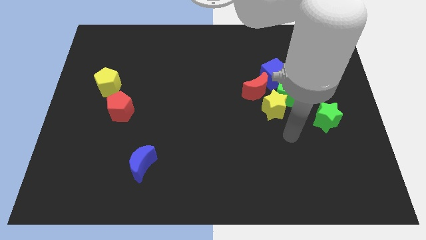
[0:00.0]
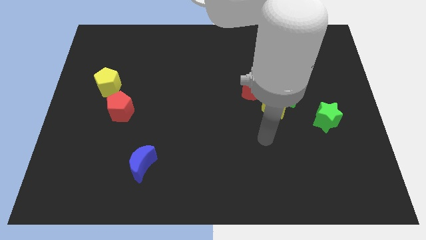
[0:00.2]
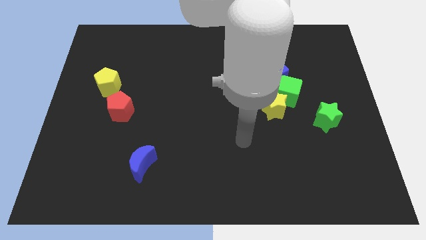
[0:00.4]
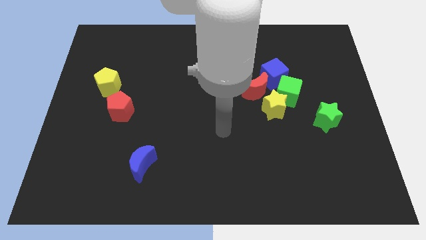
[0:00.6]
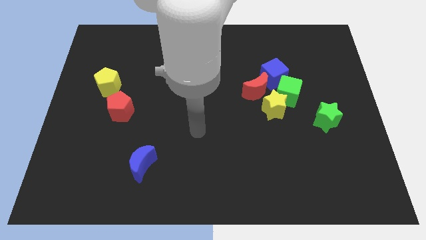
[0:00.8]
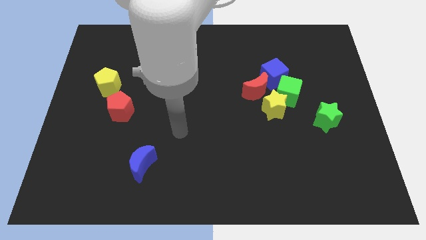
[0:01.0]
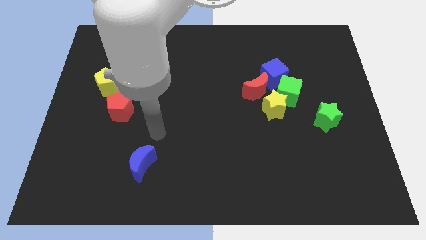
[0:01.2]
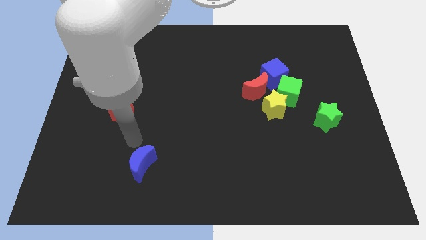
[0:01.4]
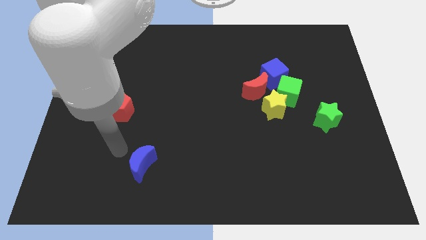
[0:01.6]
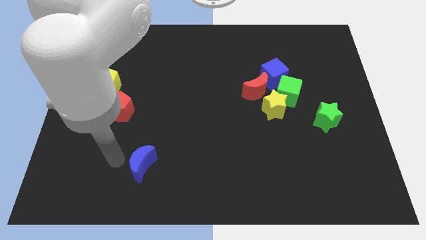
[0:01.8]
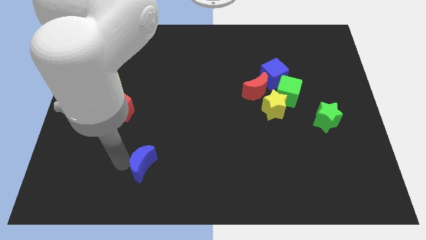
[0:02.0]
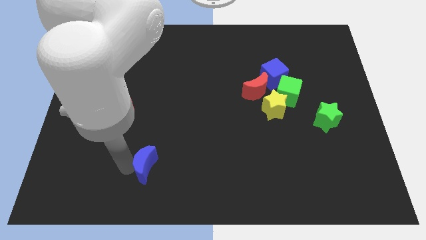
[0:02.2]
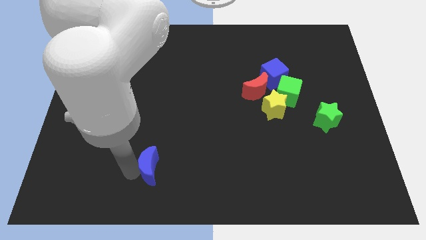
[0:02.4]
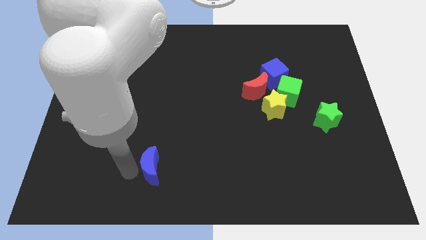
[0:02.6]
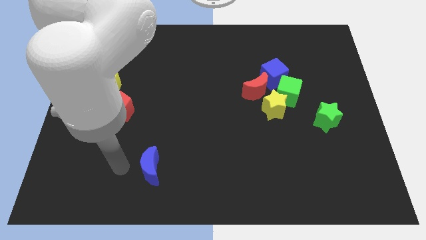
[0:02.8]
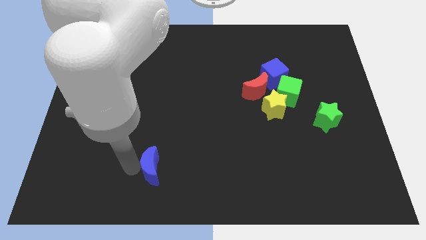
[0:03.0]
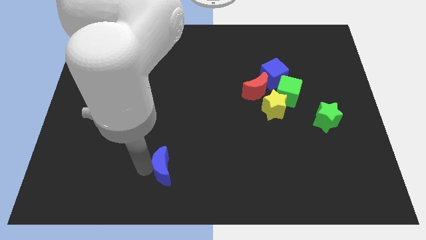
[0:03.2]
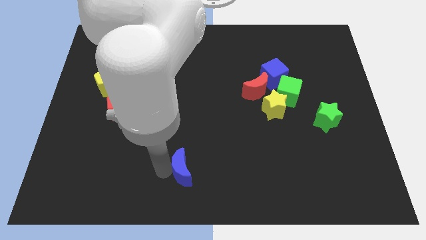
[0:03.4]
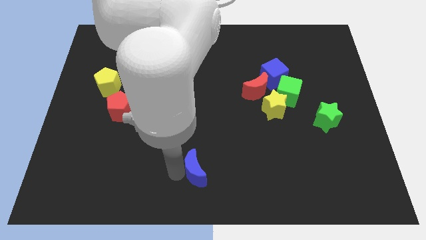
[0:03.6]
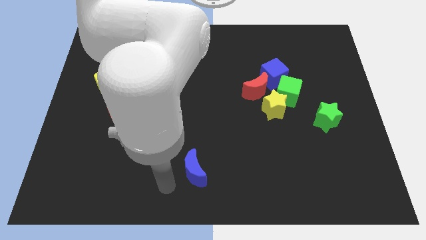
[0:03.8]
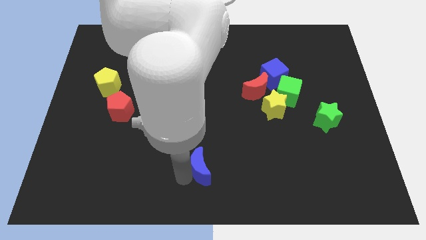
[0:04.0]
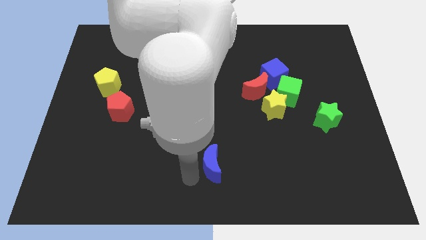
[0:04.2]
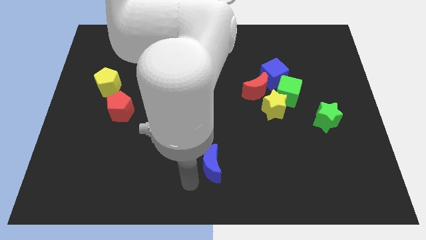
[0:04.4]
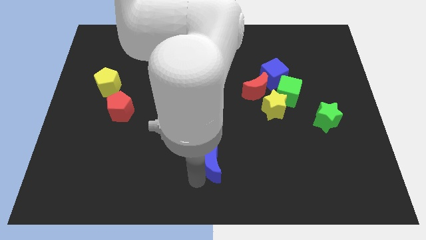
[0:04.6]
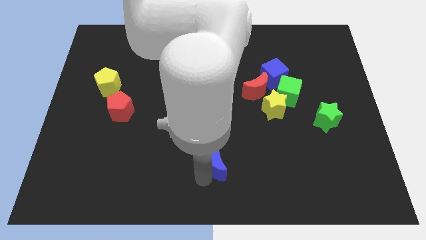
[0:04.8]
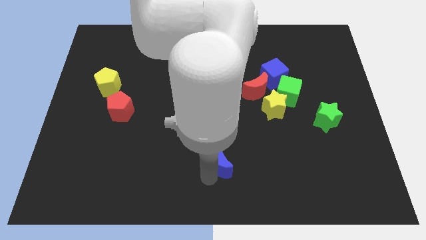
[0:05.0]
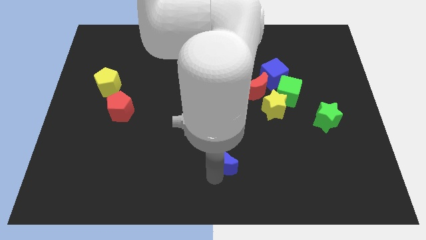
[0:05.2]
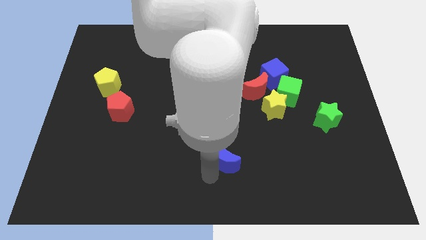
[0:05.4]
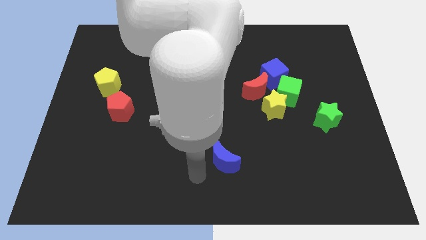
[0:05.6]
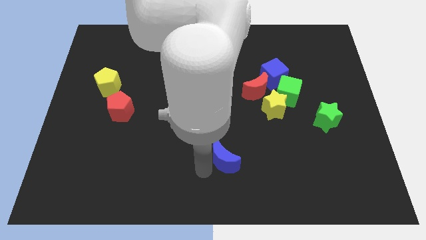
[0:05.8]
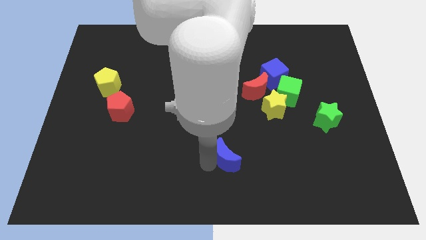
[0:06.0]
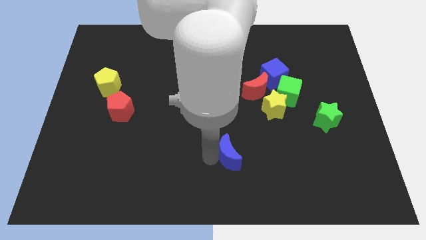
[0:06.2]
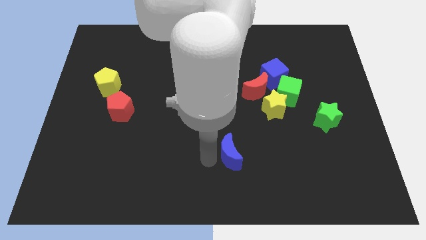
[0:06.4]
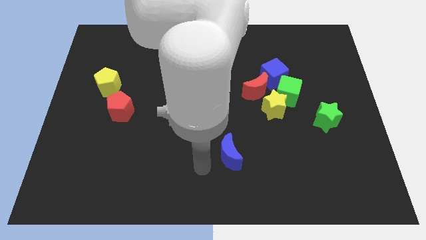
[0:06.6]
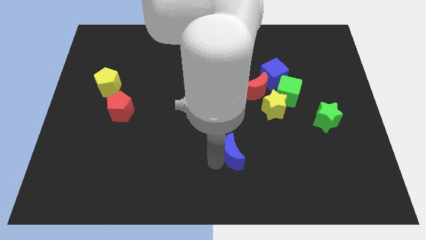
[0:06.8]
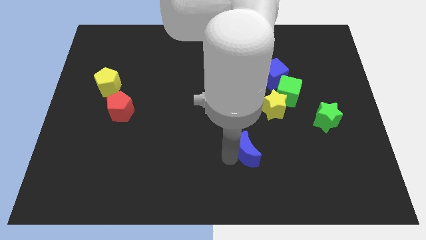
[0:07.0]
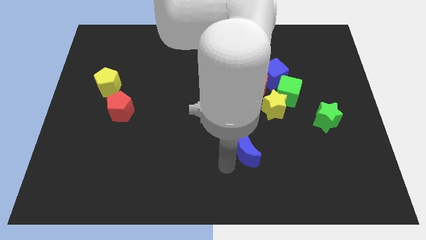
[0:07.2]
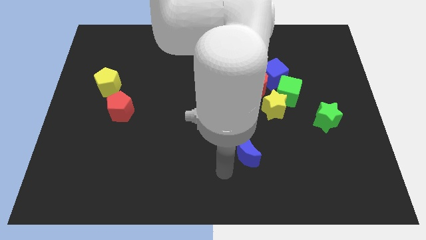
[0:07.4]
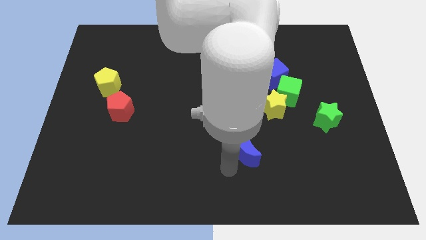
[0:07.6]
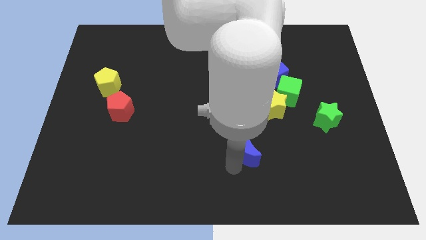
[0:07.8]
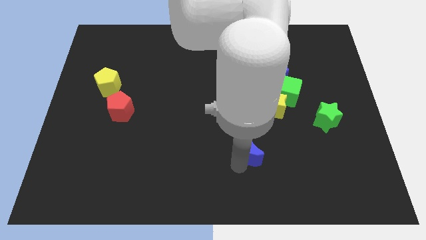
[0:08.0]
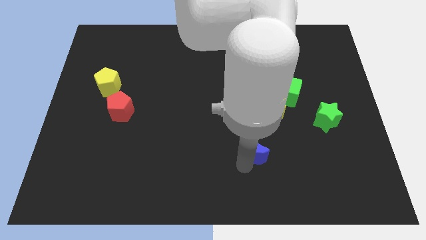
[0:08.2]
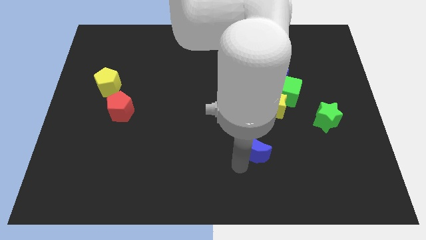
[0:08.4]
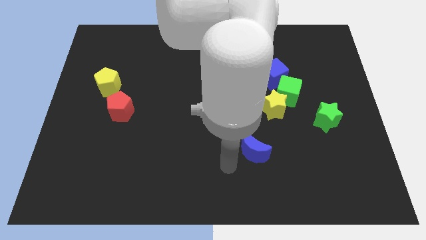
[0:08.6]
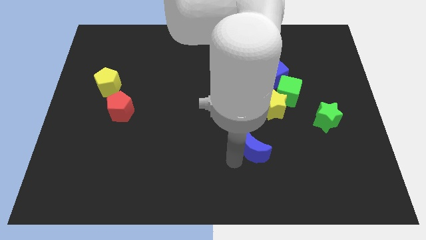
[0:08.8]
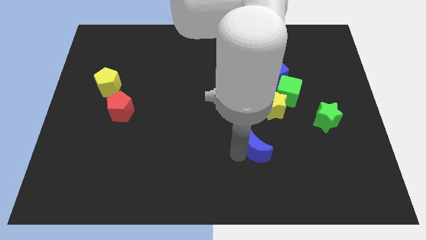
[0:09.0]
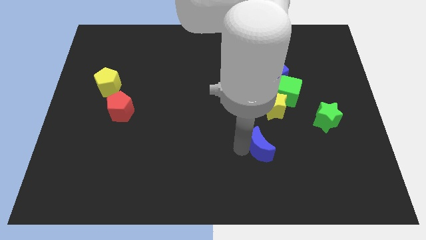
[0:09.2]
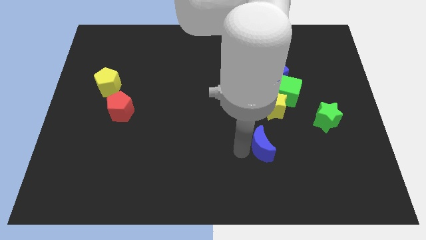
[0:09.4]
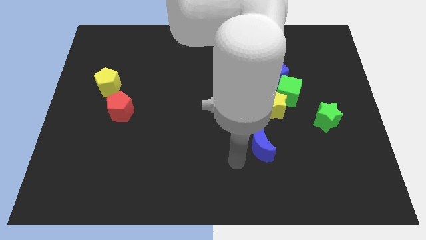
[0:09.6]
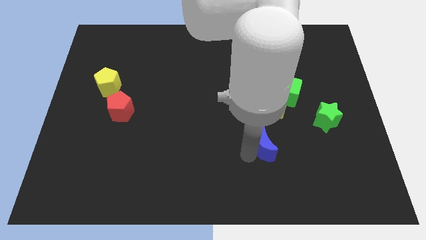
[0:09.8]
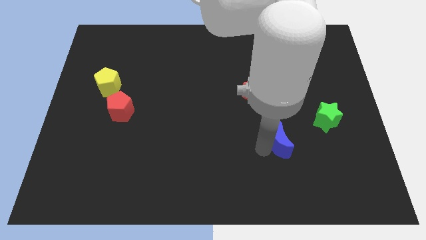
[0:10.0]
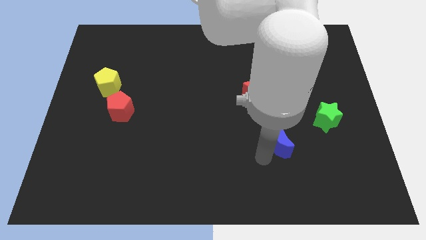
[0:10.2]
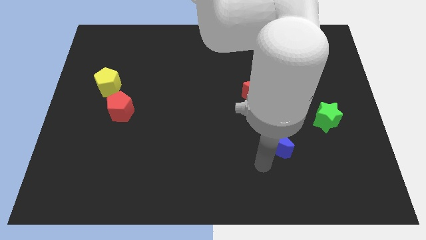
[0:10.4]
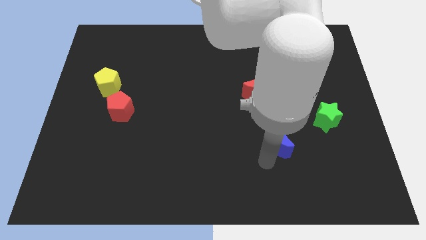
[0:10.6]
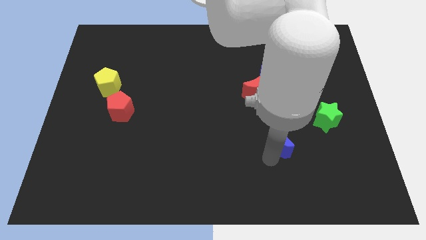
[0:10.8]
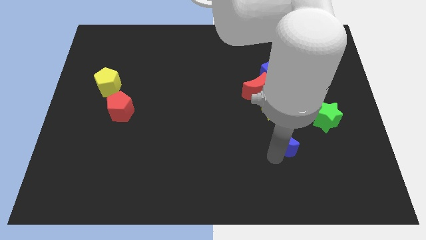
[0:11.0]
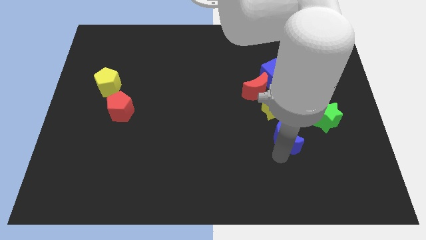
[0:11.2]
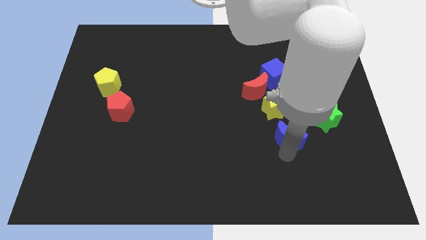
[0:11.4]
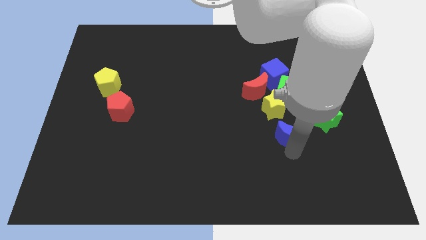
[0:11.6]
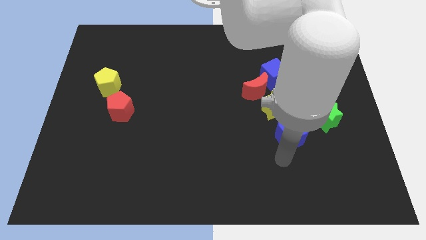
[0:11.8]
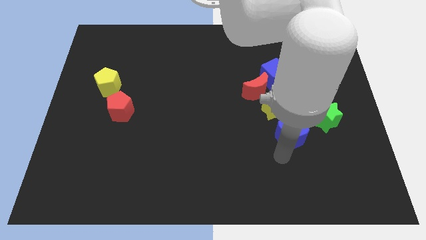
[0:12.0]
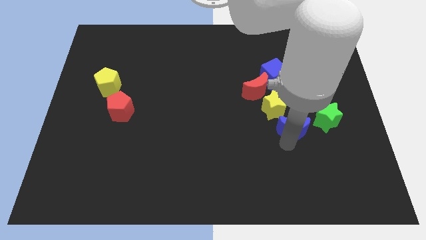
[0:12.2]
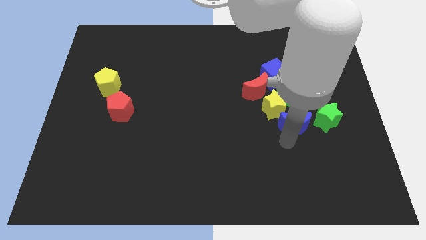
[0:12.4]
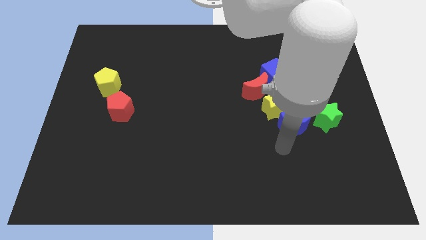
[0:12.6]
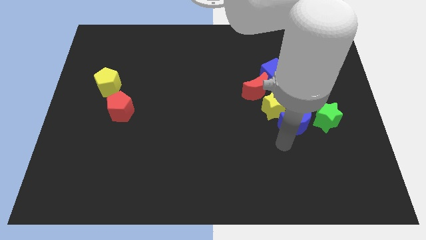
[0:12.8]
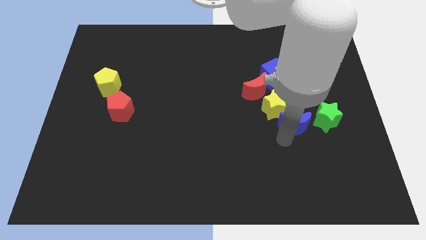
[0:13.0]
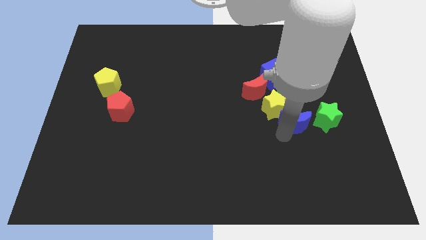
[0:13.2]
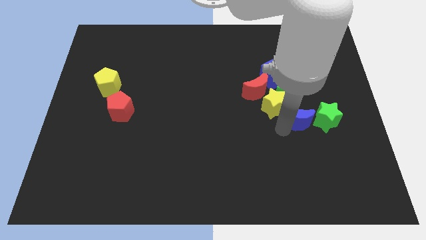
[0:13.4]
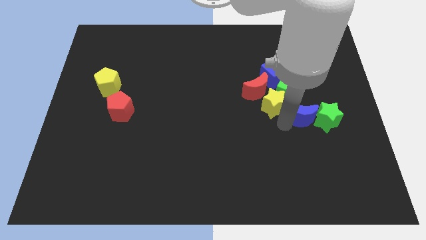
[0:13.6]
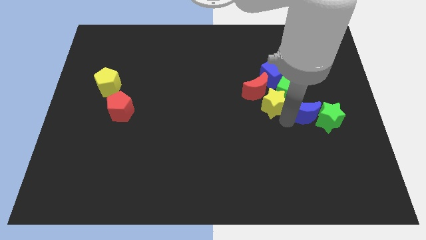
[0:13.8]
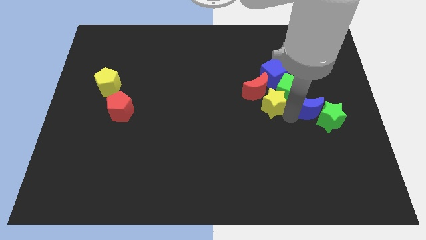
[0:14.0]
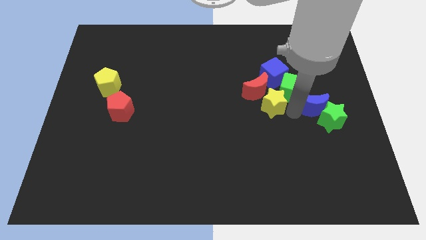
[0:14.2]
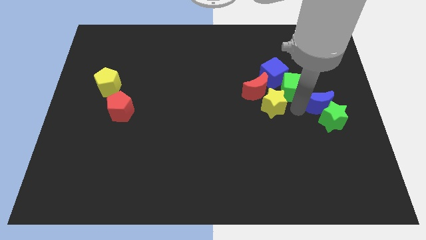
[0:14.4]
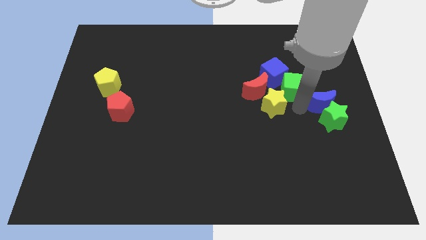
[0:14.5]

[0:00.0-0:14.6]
put the blue moon to the center right
